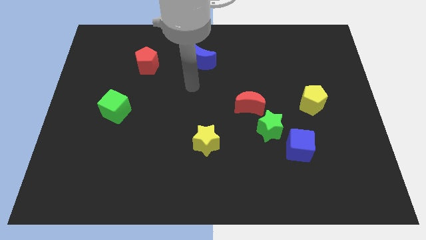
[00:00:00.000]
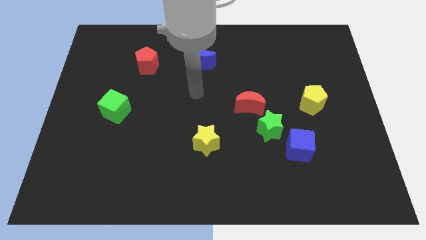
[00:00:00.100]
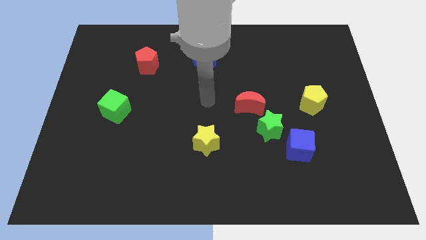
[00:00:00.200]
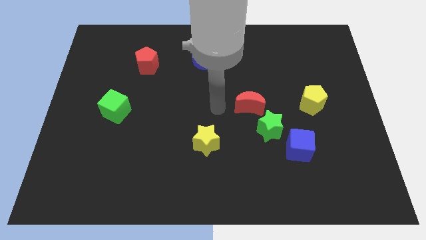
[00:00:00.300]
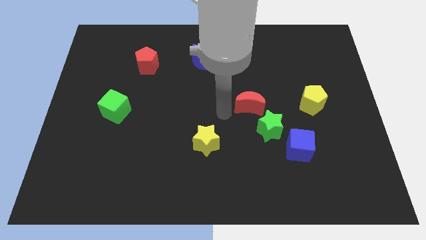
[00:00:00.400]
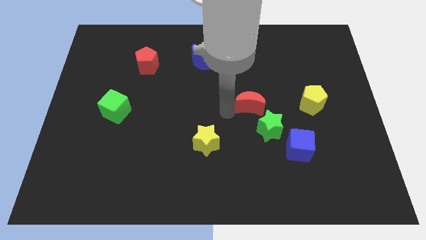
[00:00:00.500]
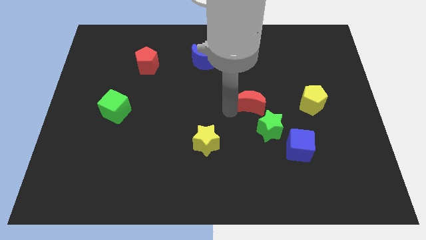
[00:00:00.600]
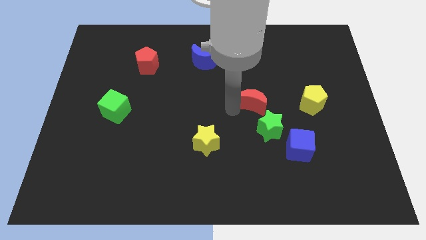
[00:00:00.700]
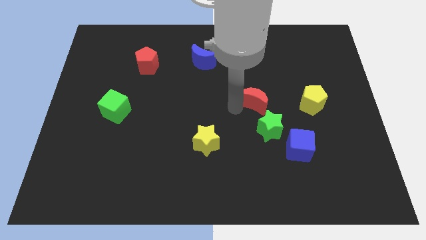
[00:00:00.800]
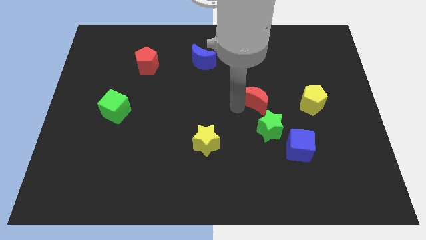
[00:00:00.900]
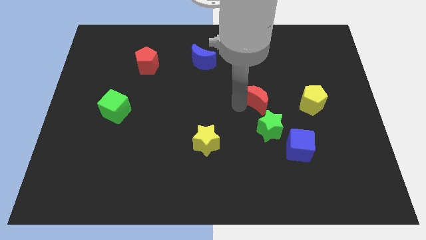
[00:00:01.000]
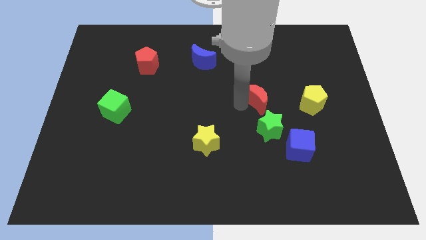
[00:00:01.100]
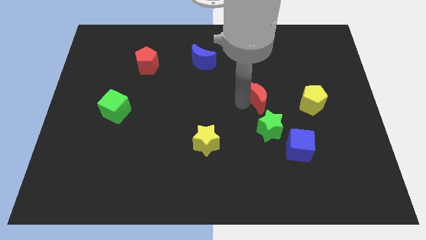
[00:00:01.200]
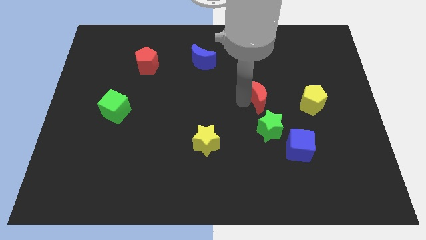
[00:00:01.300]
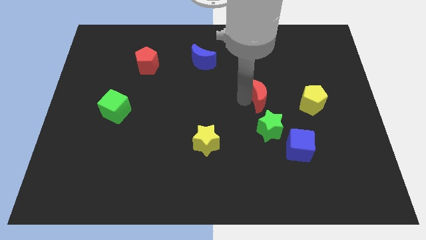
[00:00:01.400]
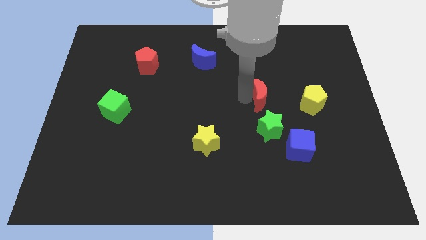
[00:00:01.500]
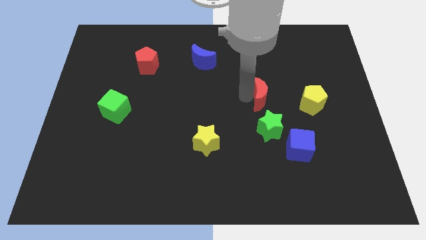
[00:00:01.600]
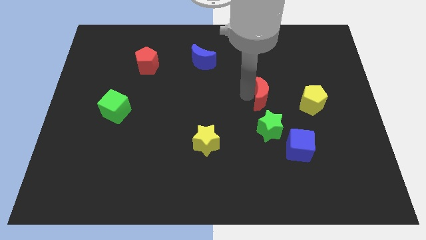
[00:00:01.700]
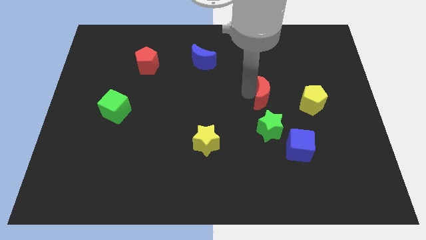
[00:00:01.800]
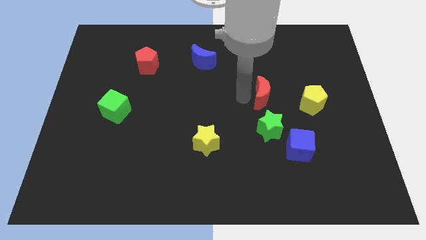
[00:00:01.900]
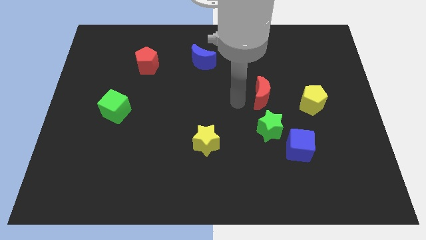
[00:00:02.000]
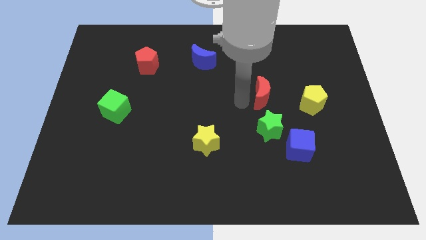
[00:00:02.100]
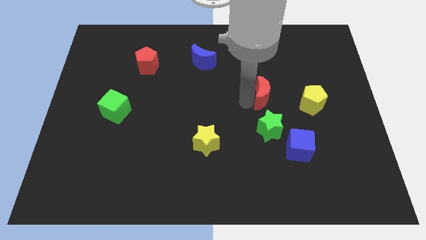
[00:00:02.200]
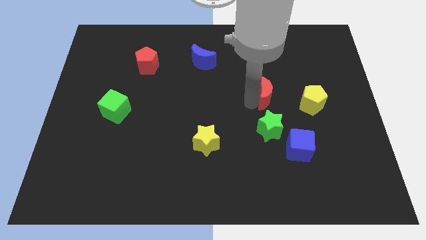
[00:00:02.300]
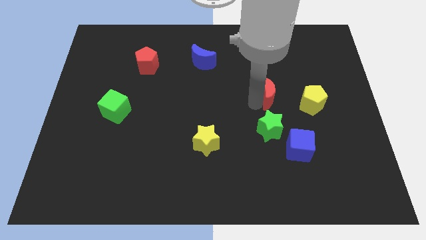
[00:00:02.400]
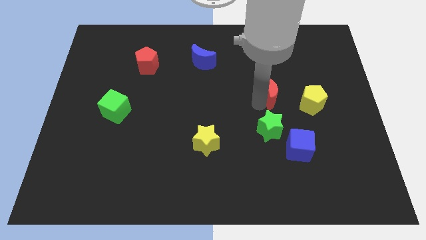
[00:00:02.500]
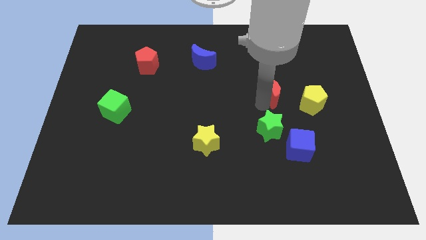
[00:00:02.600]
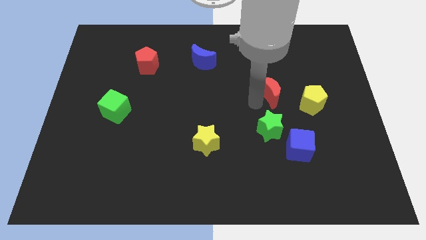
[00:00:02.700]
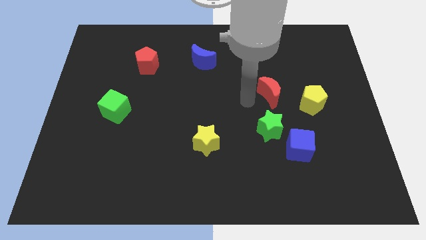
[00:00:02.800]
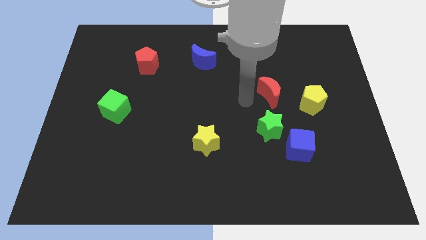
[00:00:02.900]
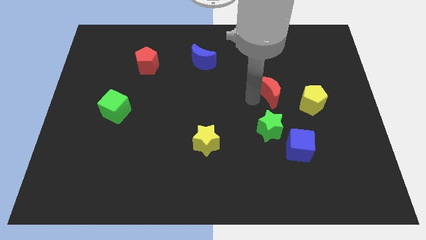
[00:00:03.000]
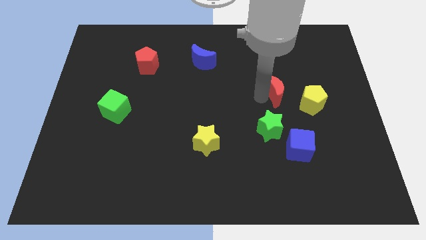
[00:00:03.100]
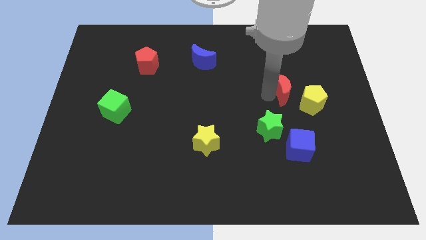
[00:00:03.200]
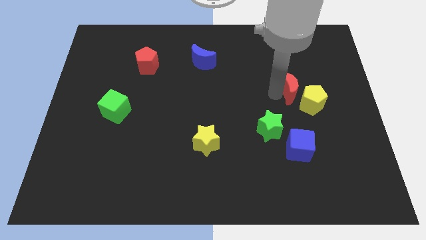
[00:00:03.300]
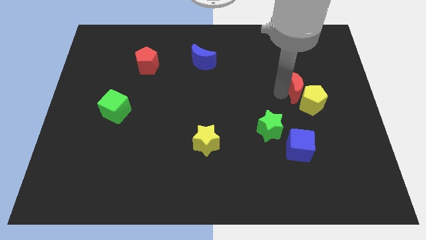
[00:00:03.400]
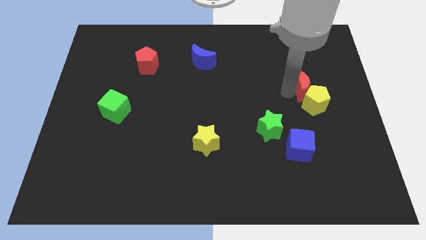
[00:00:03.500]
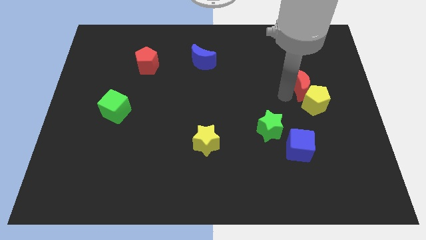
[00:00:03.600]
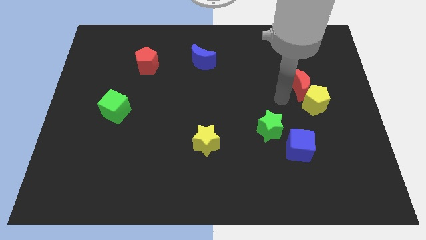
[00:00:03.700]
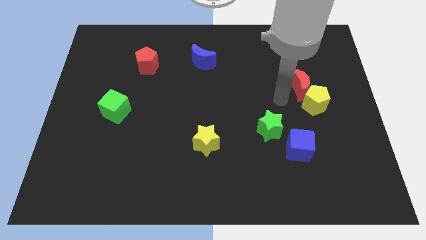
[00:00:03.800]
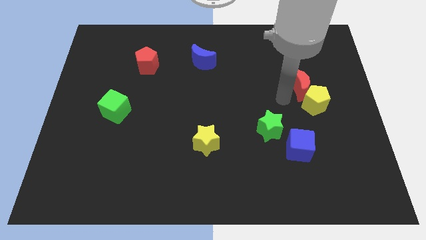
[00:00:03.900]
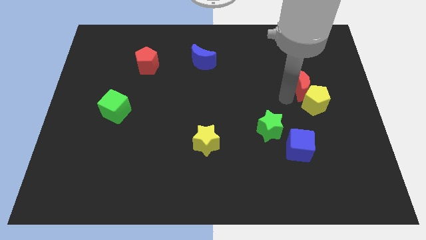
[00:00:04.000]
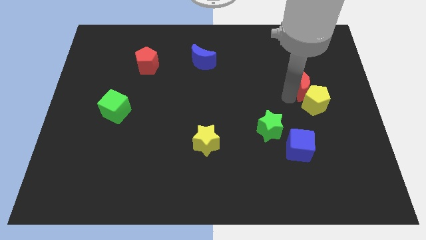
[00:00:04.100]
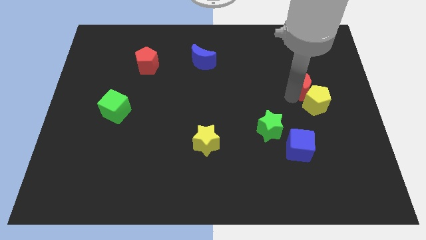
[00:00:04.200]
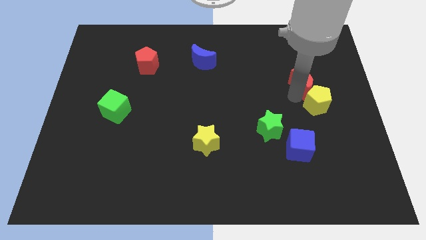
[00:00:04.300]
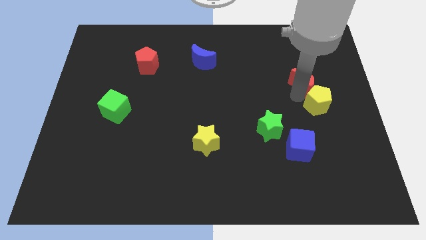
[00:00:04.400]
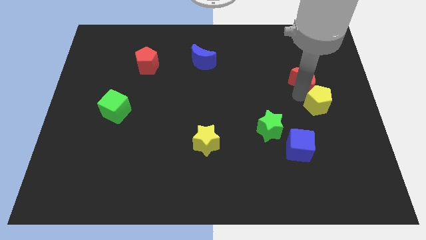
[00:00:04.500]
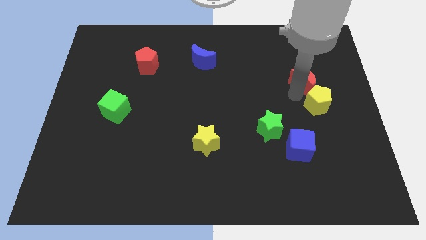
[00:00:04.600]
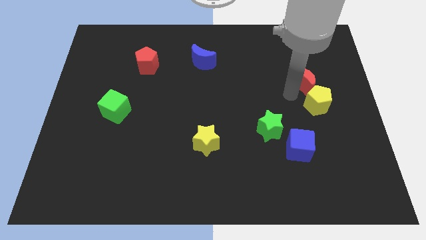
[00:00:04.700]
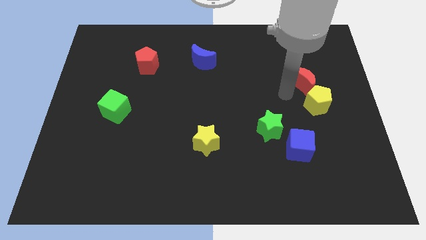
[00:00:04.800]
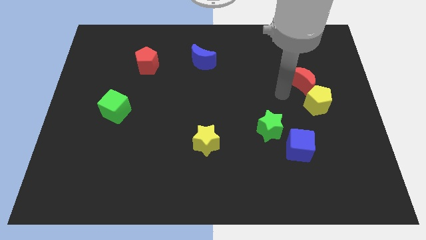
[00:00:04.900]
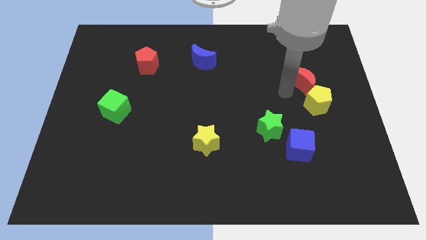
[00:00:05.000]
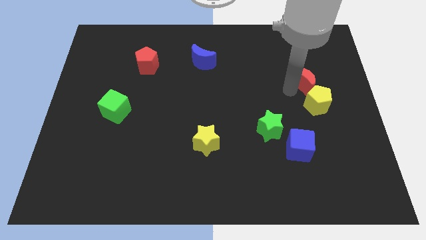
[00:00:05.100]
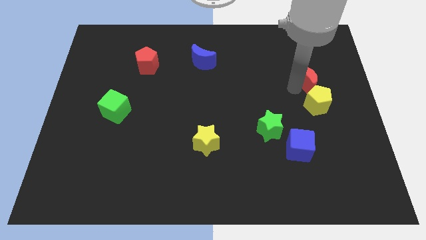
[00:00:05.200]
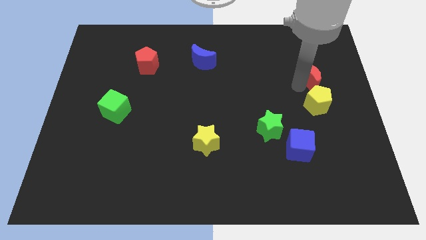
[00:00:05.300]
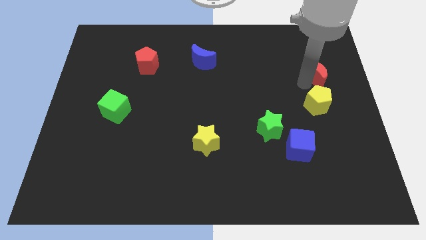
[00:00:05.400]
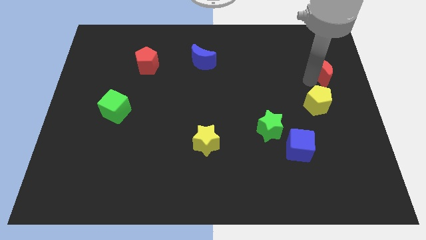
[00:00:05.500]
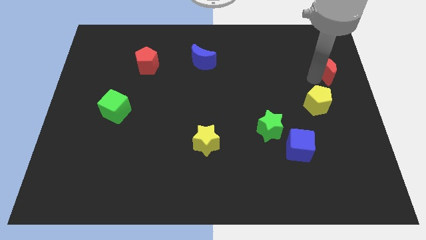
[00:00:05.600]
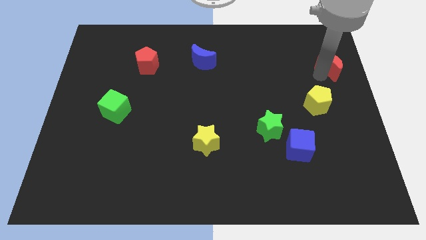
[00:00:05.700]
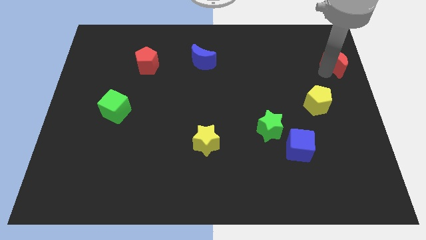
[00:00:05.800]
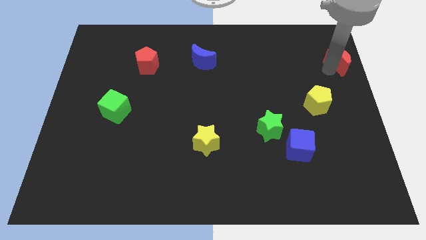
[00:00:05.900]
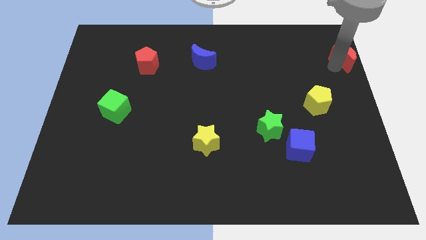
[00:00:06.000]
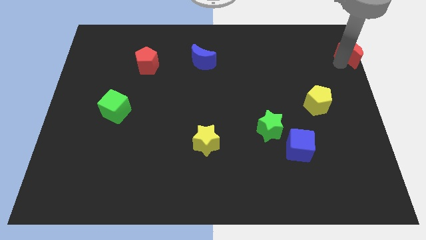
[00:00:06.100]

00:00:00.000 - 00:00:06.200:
put the red moon to the upper right corner
